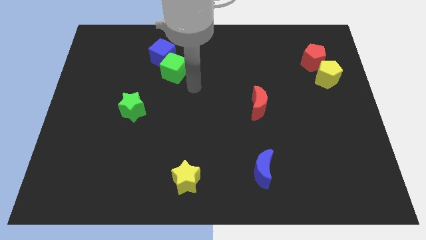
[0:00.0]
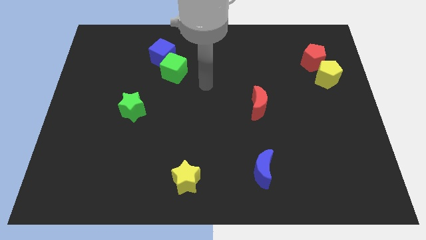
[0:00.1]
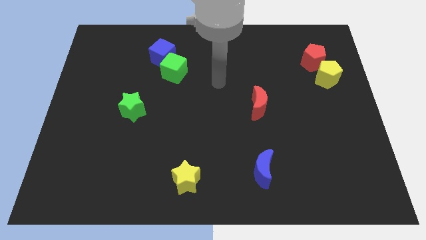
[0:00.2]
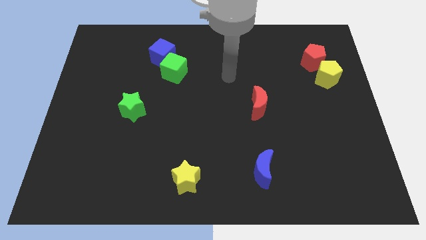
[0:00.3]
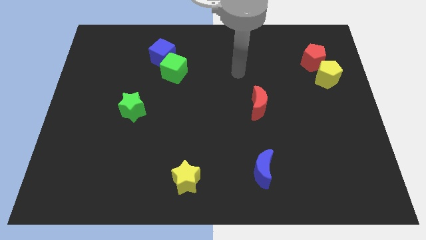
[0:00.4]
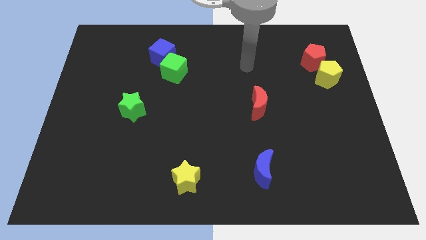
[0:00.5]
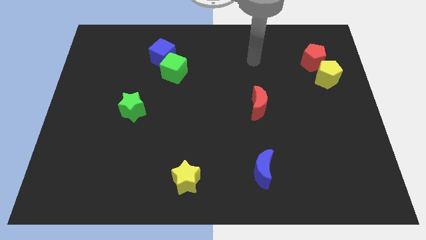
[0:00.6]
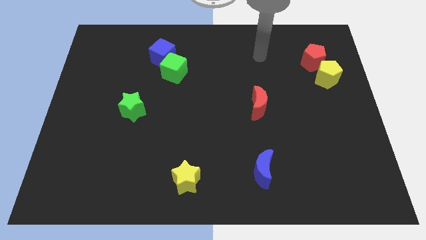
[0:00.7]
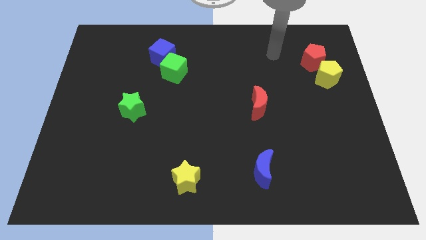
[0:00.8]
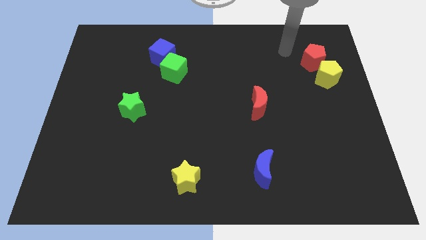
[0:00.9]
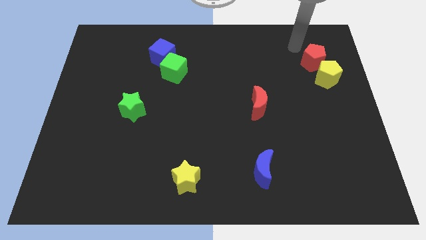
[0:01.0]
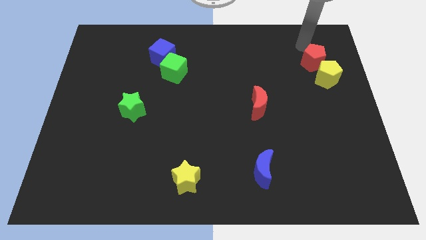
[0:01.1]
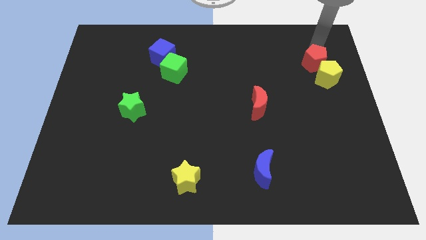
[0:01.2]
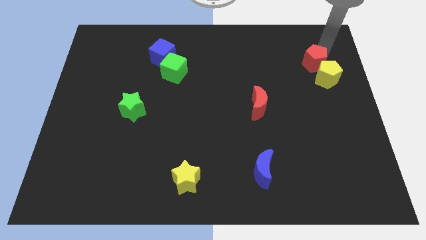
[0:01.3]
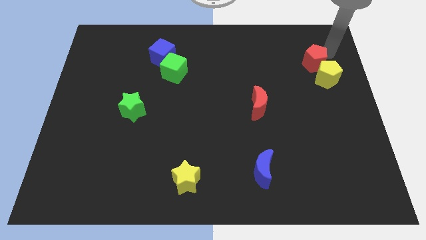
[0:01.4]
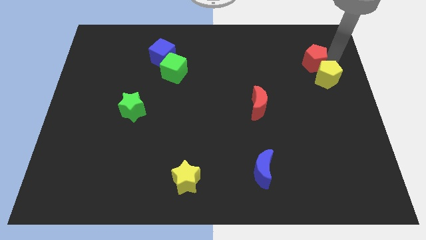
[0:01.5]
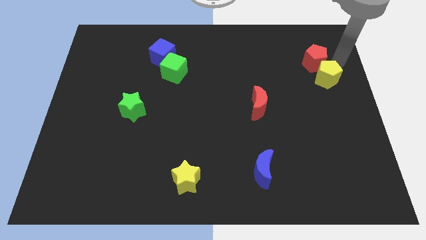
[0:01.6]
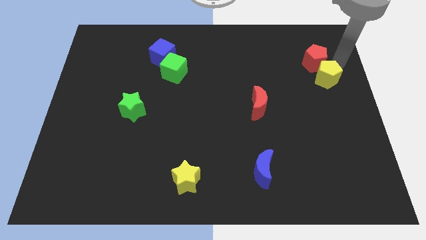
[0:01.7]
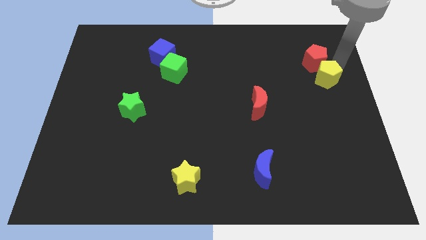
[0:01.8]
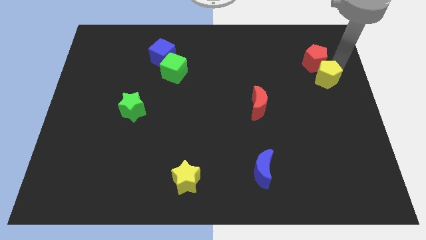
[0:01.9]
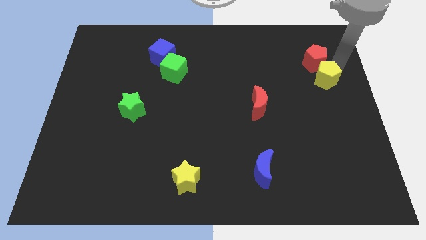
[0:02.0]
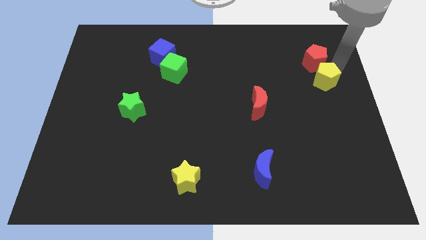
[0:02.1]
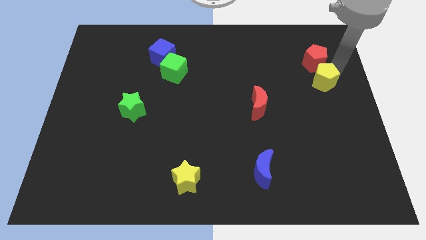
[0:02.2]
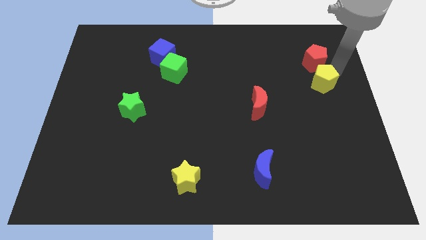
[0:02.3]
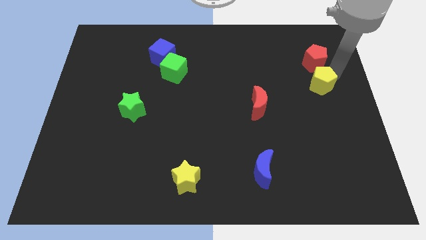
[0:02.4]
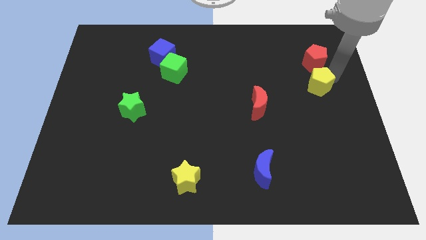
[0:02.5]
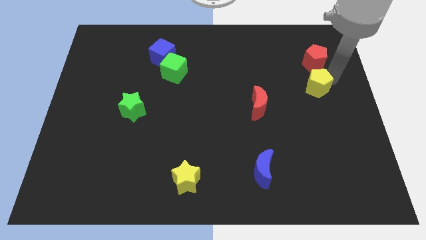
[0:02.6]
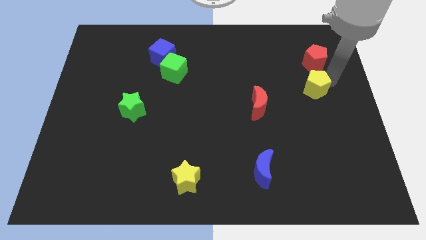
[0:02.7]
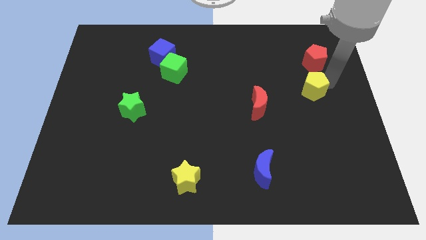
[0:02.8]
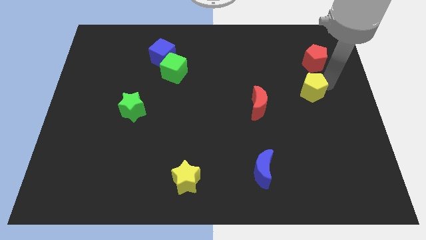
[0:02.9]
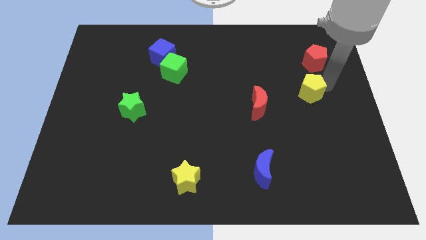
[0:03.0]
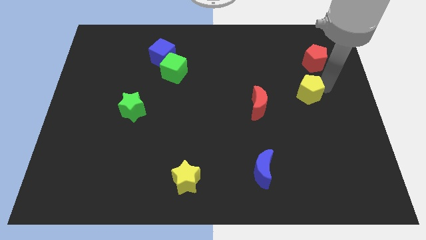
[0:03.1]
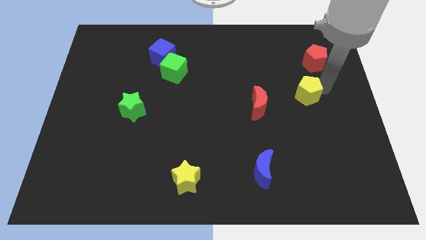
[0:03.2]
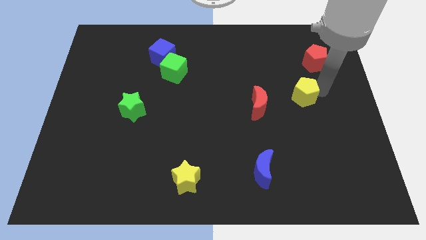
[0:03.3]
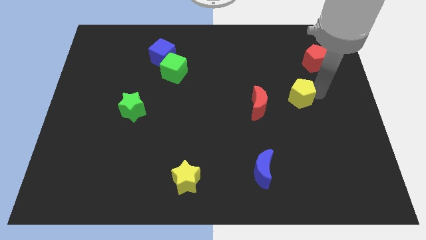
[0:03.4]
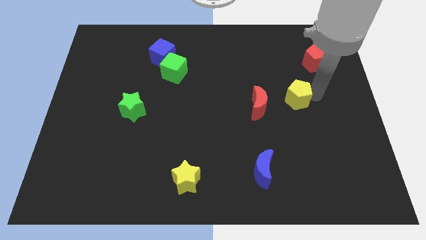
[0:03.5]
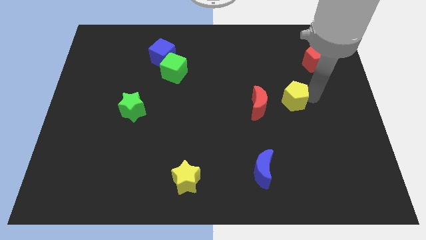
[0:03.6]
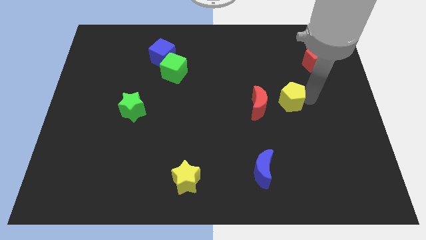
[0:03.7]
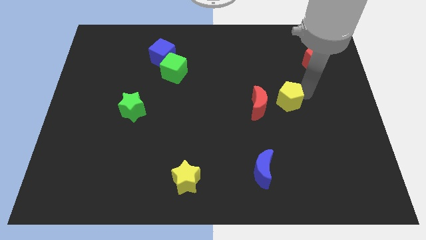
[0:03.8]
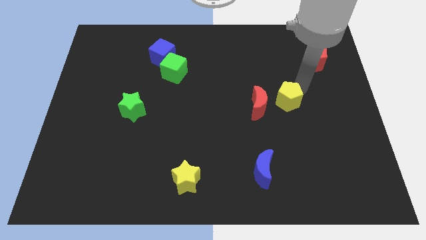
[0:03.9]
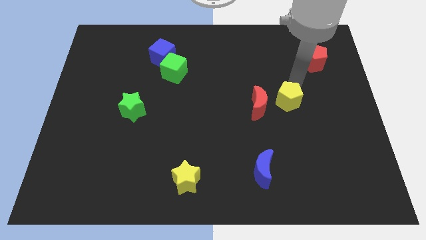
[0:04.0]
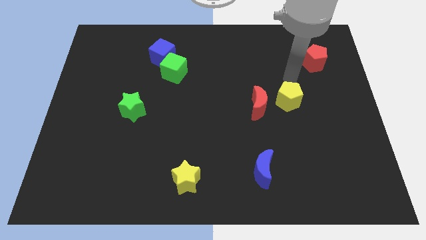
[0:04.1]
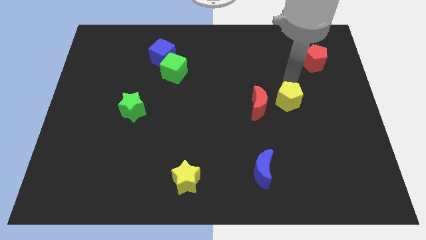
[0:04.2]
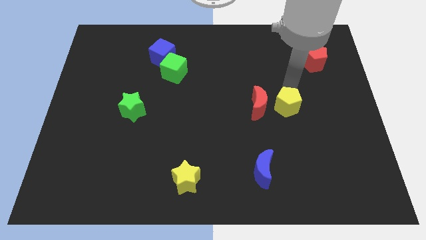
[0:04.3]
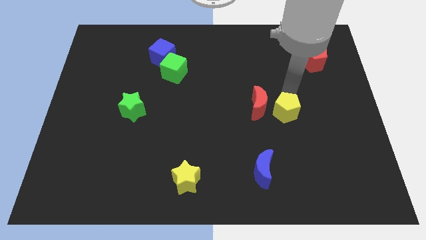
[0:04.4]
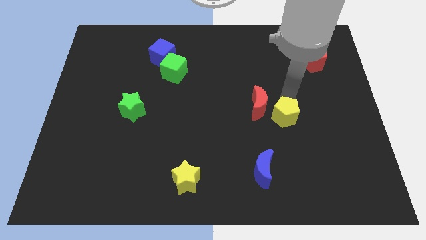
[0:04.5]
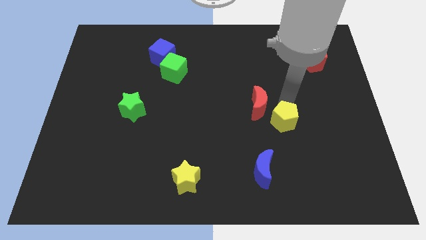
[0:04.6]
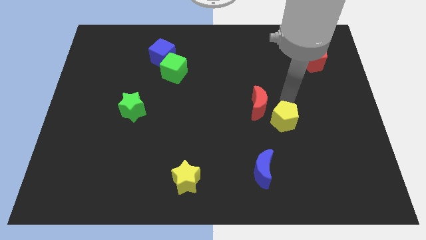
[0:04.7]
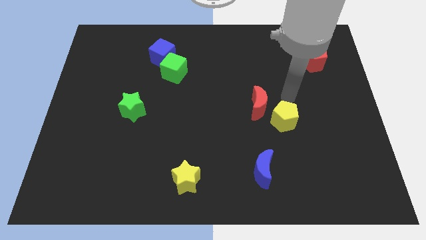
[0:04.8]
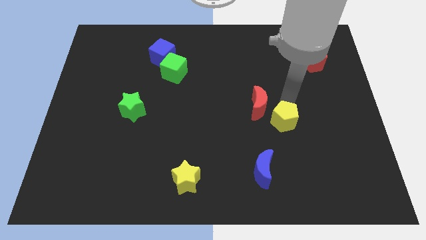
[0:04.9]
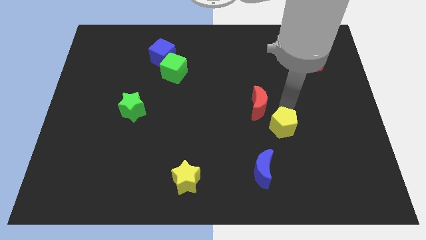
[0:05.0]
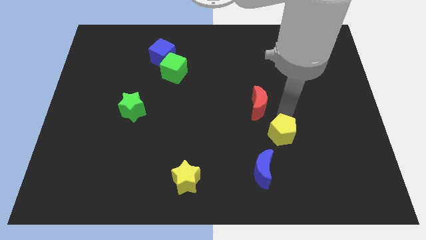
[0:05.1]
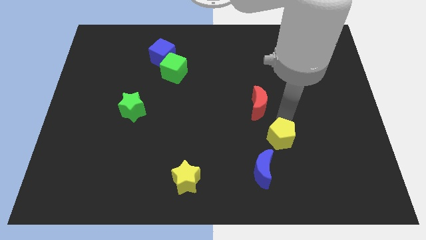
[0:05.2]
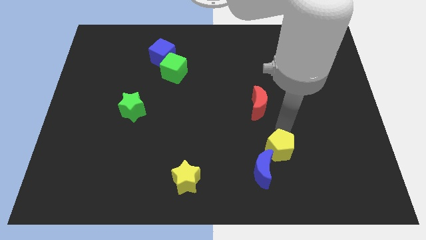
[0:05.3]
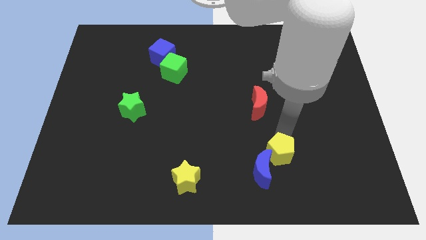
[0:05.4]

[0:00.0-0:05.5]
move the yellow pentagon close to the blue moon

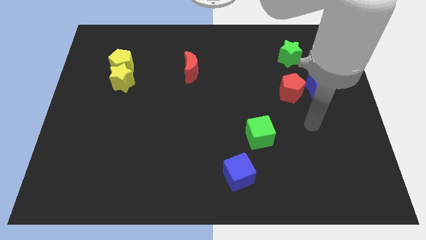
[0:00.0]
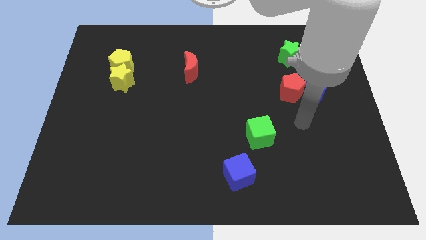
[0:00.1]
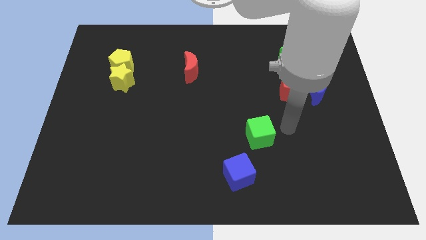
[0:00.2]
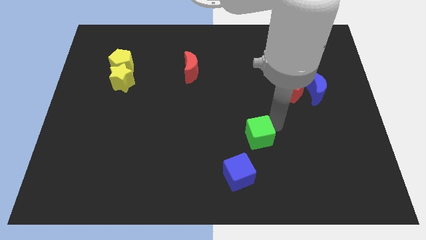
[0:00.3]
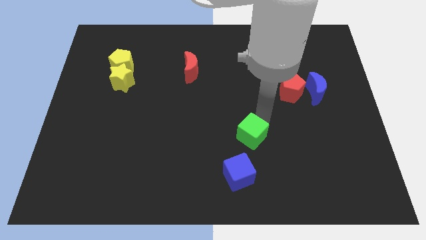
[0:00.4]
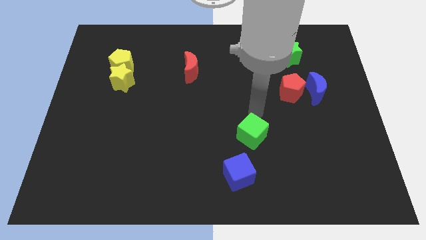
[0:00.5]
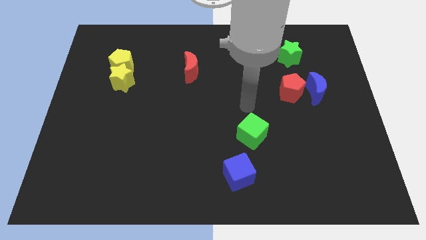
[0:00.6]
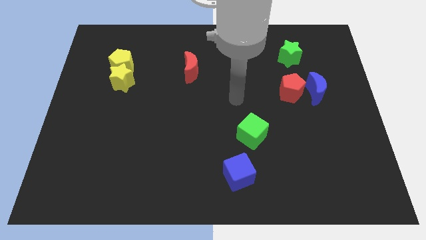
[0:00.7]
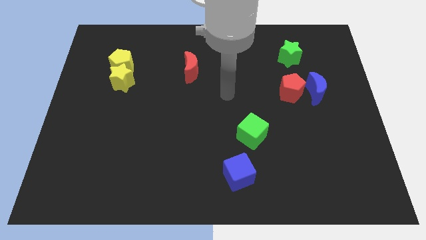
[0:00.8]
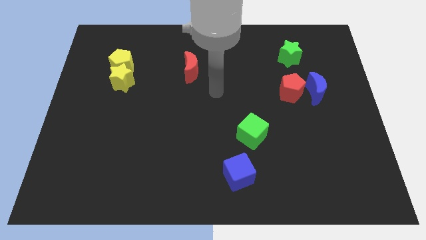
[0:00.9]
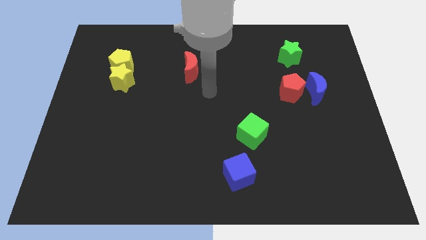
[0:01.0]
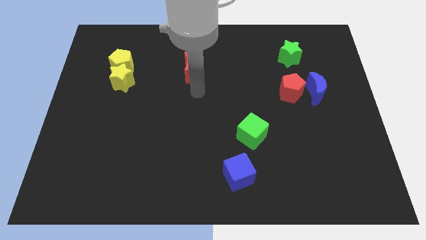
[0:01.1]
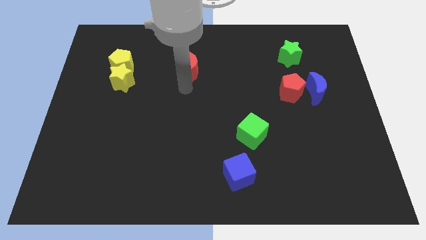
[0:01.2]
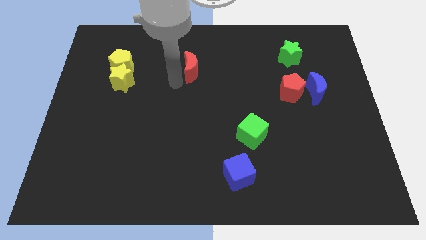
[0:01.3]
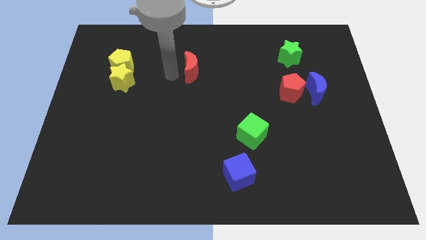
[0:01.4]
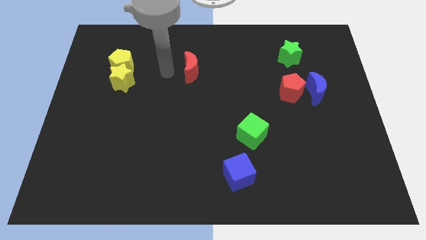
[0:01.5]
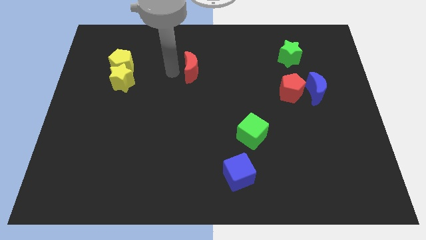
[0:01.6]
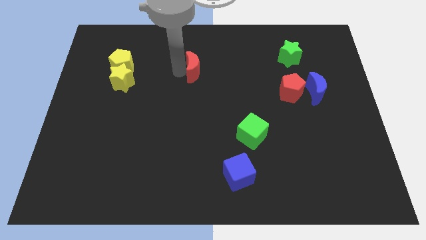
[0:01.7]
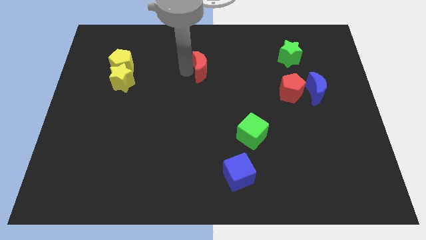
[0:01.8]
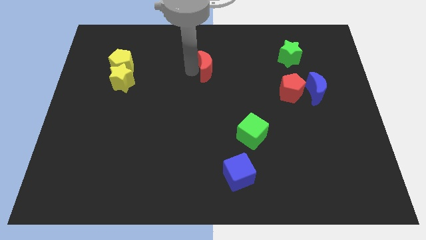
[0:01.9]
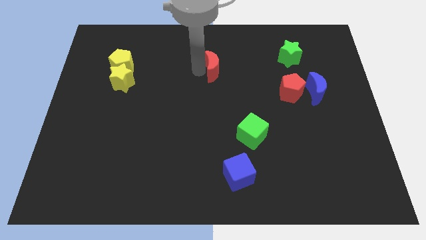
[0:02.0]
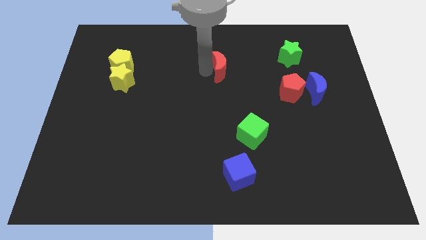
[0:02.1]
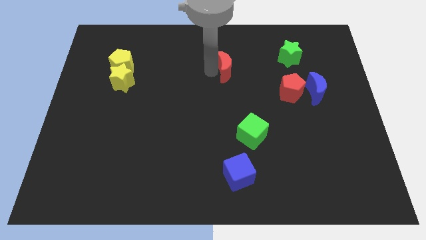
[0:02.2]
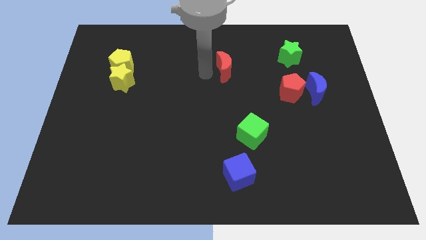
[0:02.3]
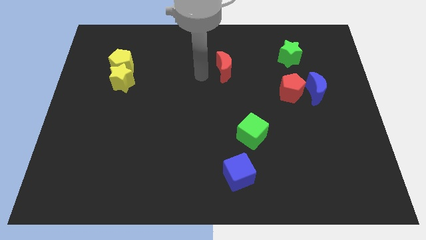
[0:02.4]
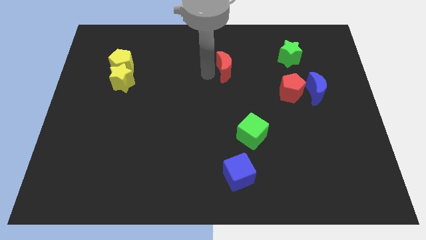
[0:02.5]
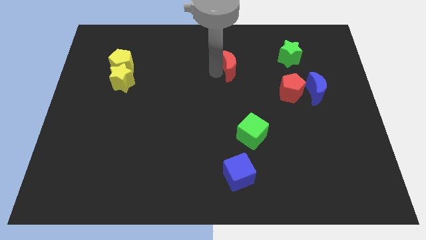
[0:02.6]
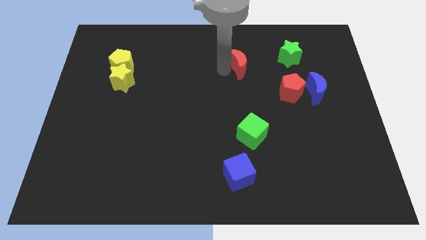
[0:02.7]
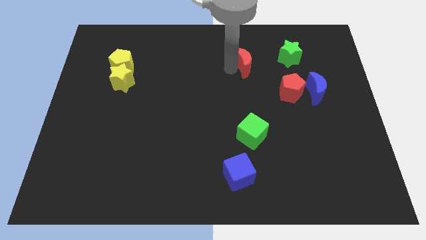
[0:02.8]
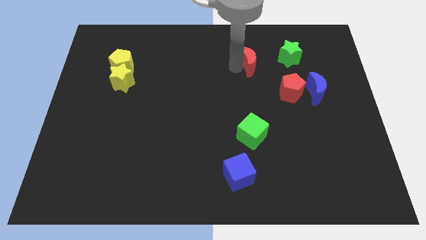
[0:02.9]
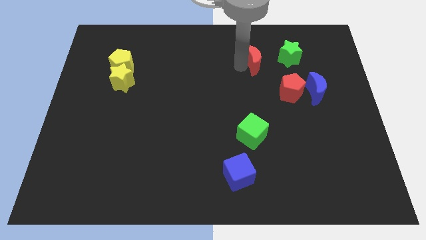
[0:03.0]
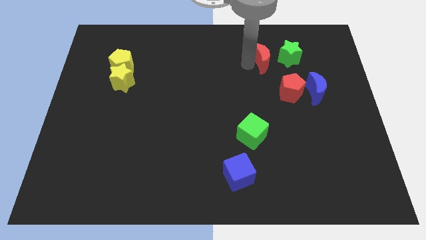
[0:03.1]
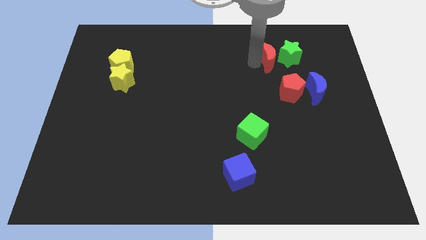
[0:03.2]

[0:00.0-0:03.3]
put the red moon close to the green star
